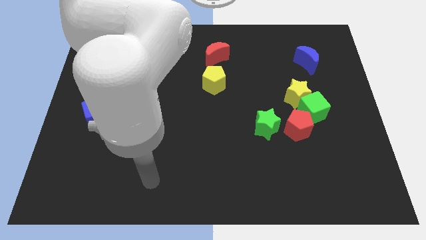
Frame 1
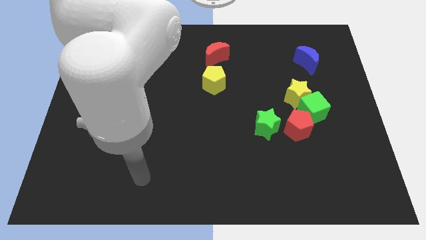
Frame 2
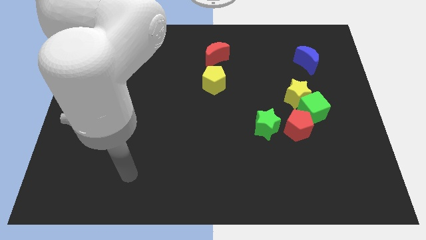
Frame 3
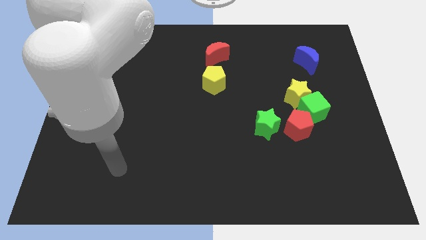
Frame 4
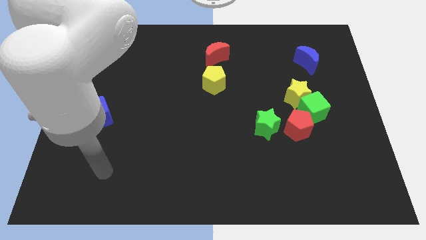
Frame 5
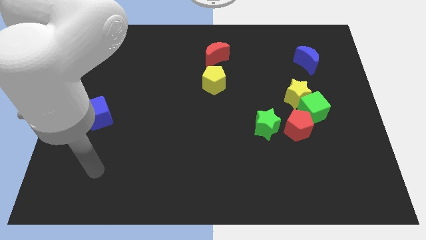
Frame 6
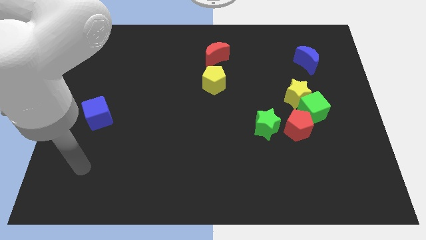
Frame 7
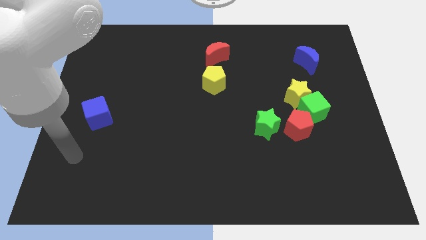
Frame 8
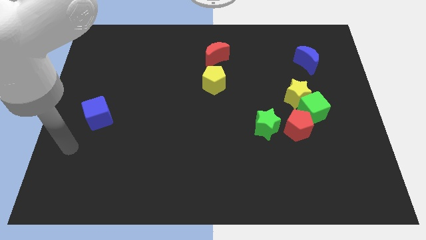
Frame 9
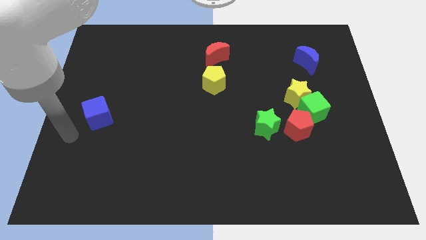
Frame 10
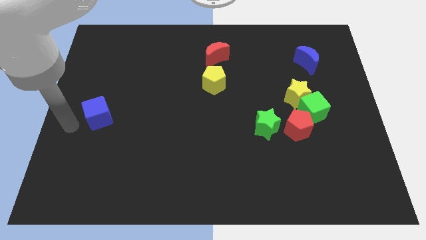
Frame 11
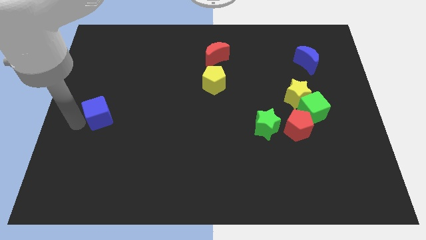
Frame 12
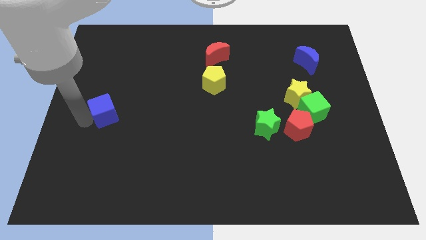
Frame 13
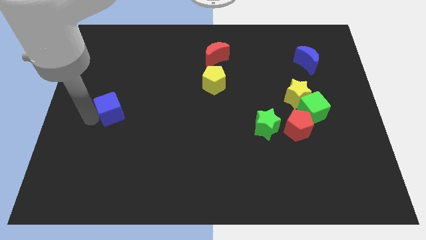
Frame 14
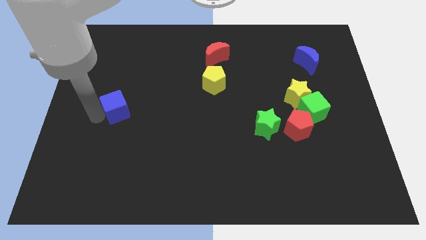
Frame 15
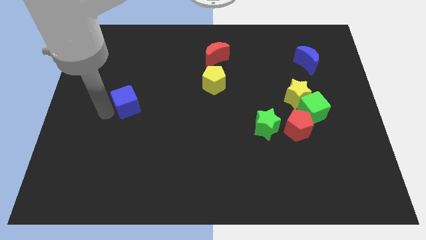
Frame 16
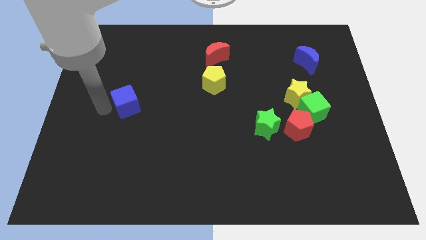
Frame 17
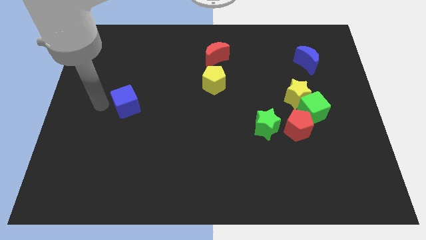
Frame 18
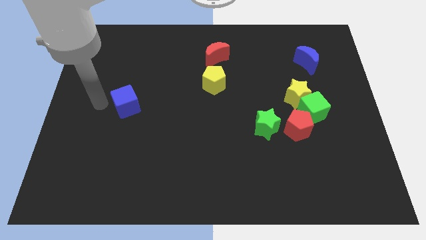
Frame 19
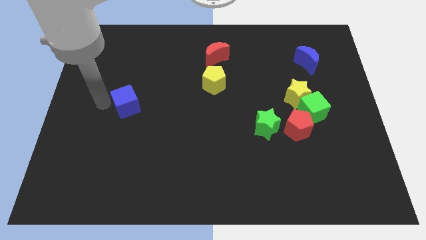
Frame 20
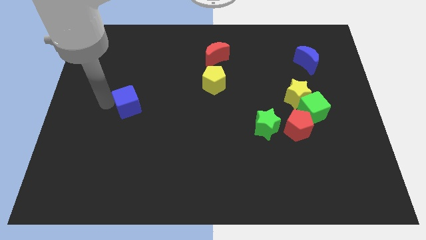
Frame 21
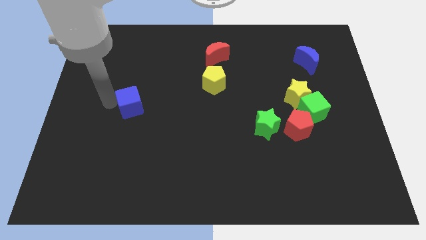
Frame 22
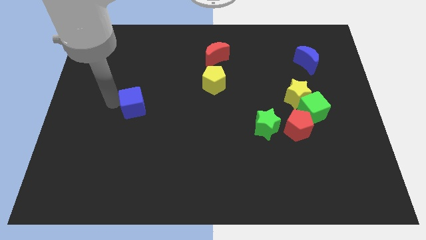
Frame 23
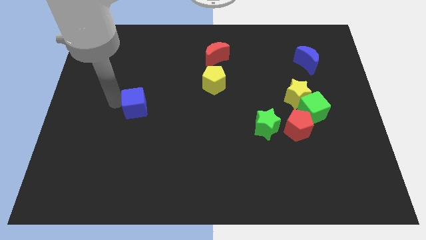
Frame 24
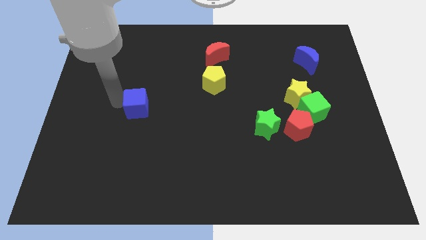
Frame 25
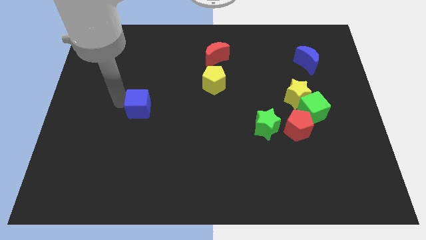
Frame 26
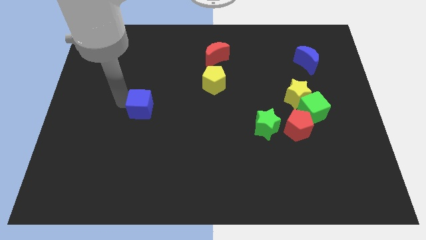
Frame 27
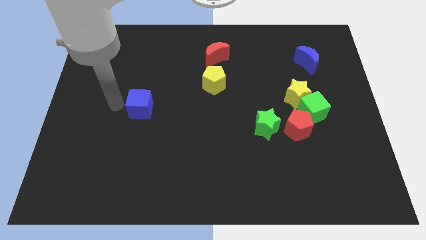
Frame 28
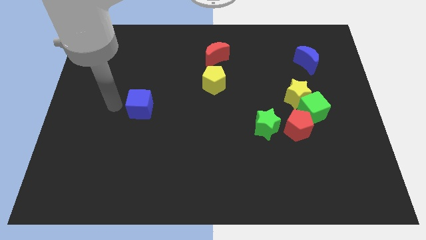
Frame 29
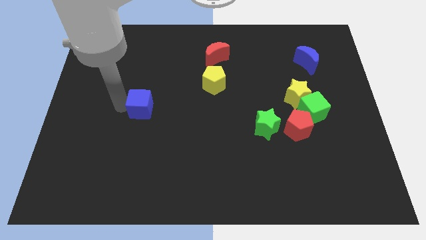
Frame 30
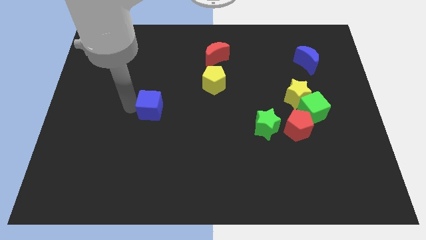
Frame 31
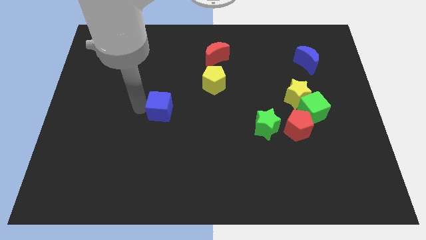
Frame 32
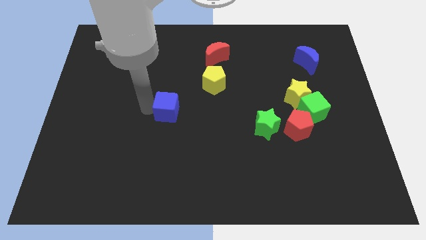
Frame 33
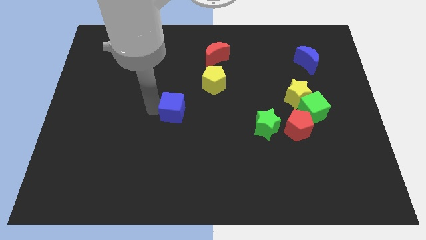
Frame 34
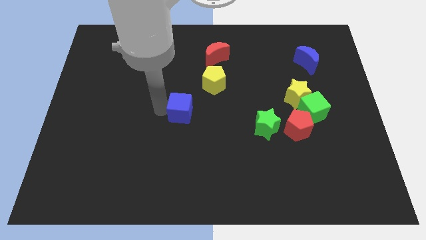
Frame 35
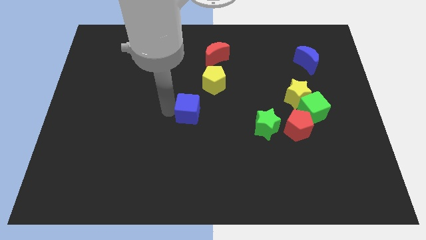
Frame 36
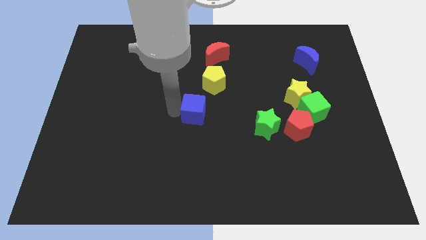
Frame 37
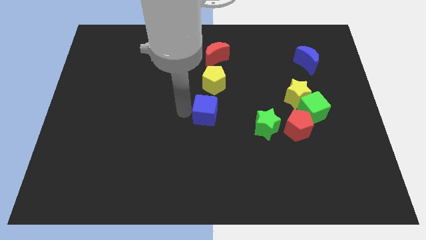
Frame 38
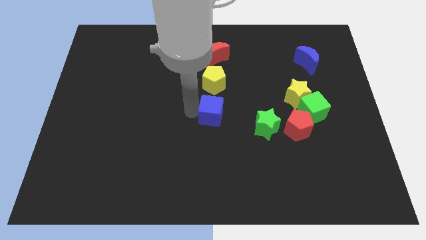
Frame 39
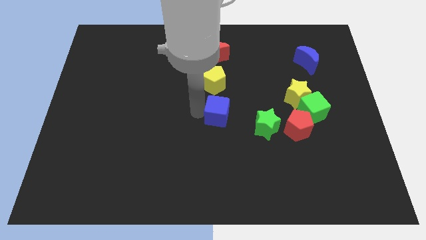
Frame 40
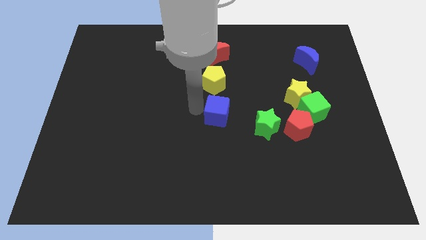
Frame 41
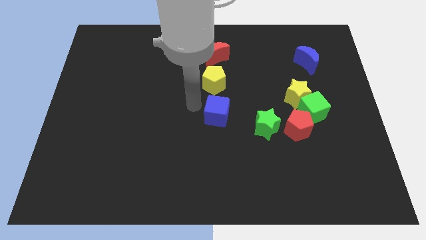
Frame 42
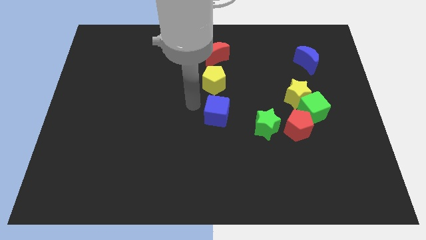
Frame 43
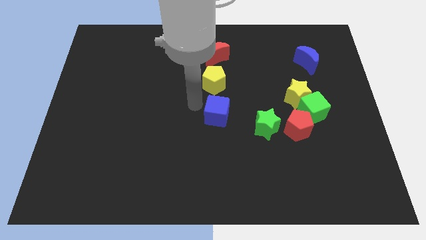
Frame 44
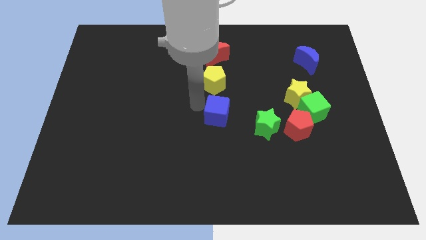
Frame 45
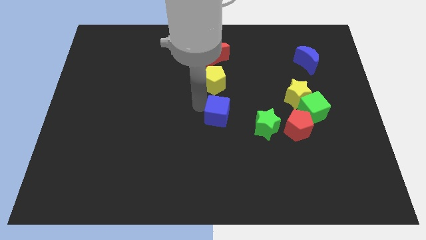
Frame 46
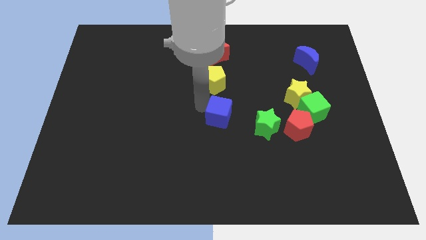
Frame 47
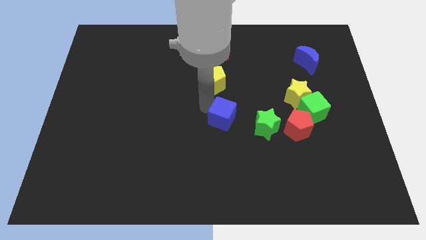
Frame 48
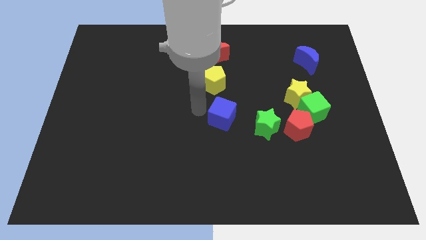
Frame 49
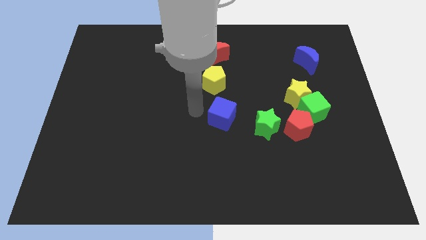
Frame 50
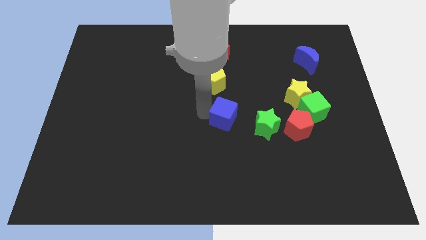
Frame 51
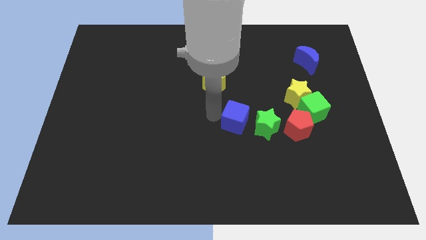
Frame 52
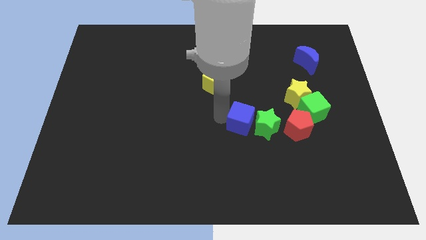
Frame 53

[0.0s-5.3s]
push the blue cube to the green star

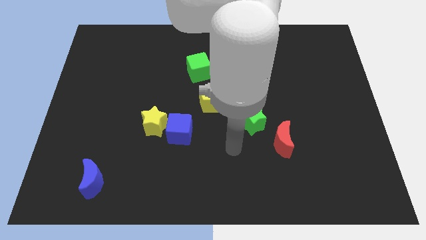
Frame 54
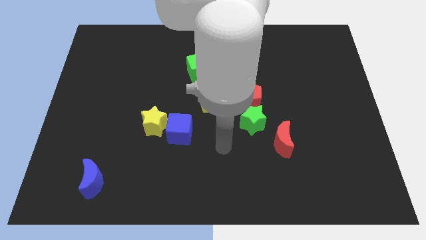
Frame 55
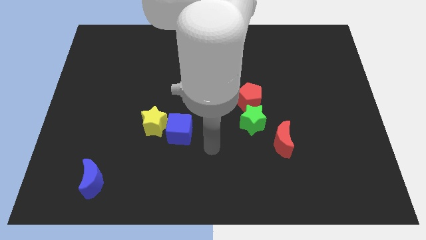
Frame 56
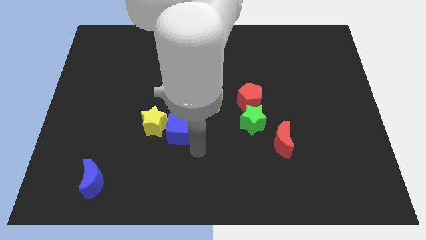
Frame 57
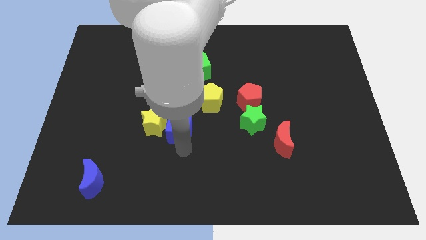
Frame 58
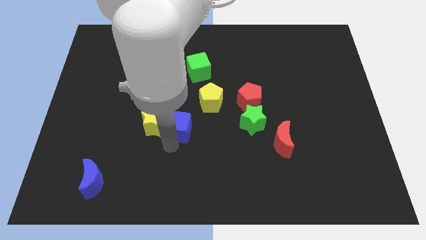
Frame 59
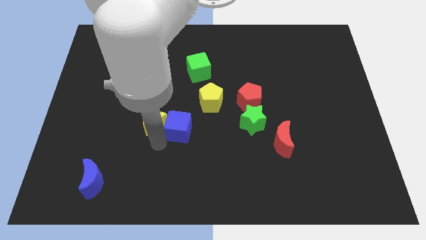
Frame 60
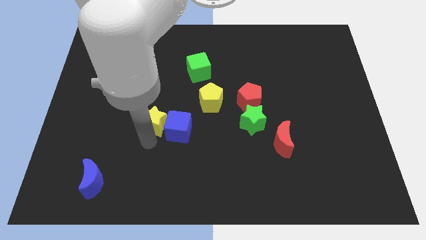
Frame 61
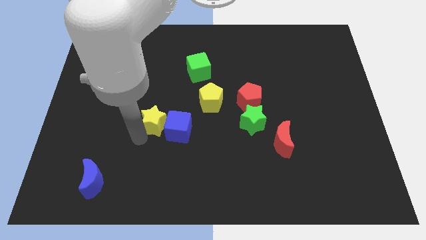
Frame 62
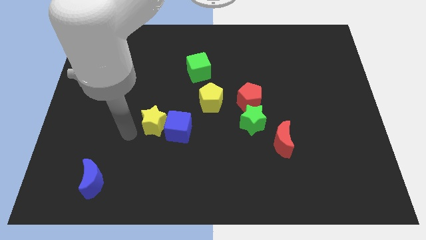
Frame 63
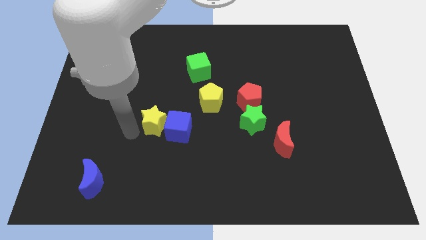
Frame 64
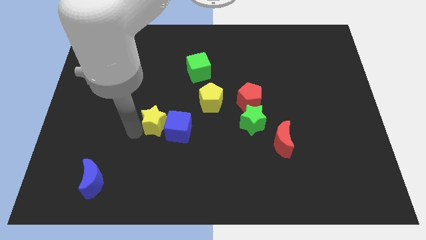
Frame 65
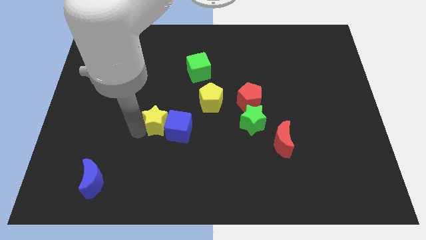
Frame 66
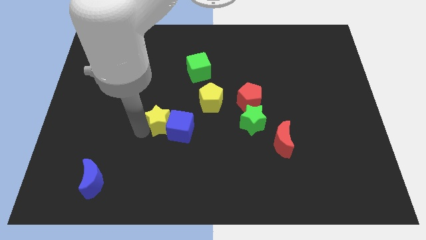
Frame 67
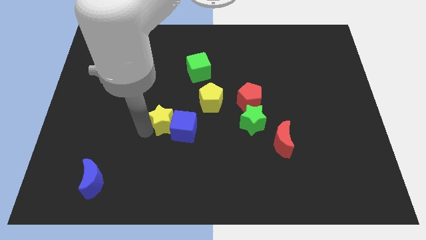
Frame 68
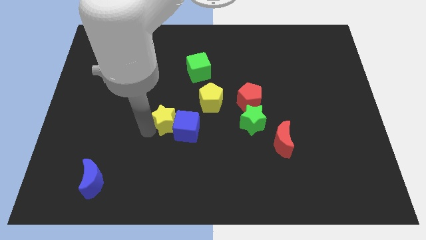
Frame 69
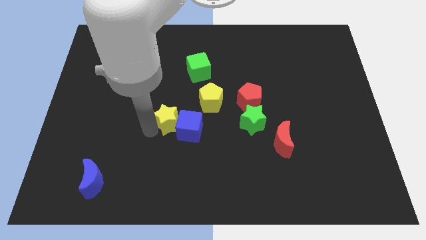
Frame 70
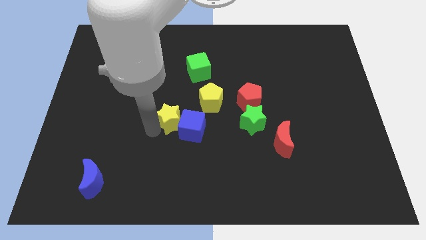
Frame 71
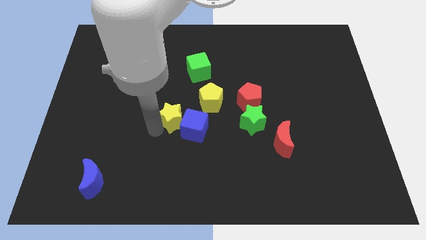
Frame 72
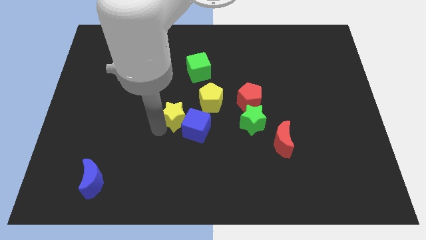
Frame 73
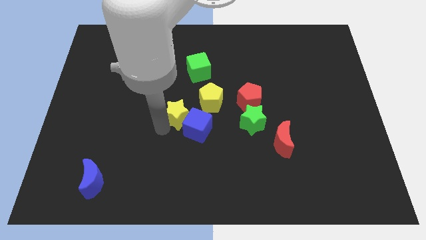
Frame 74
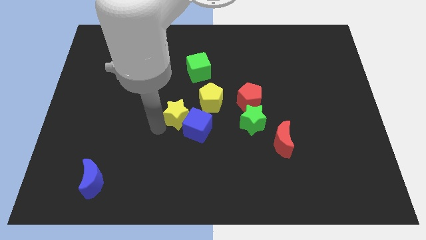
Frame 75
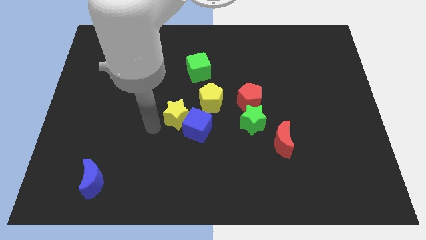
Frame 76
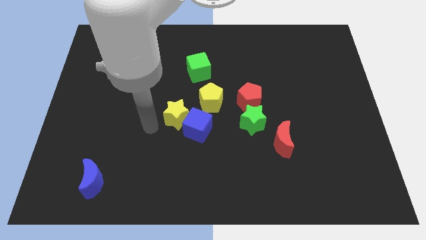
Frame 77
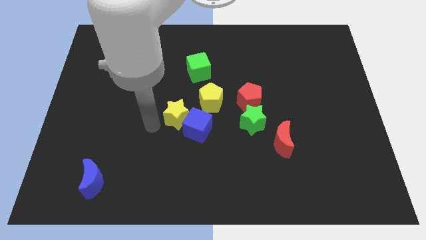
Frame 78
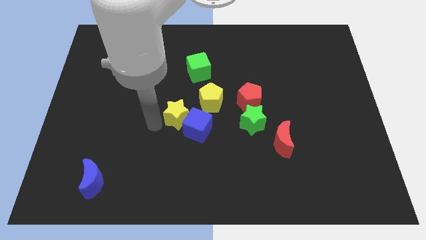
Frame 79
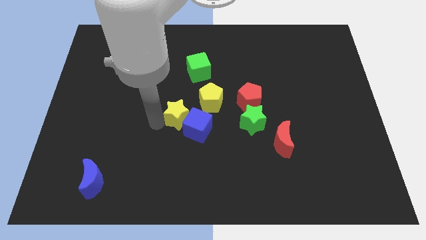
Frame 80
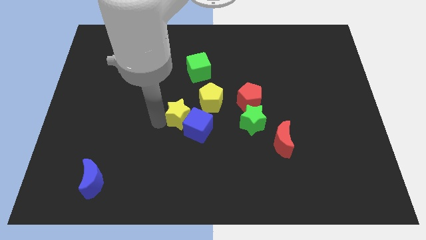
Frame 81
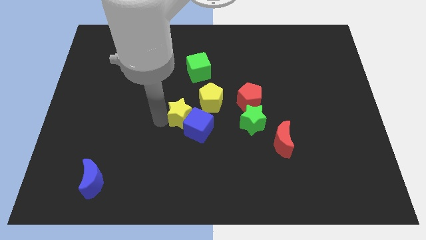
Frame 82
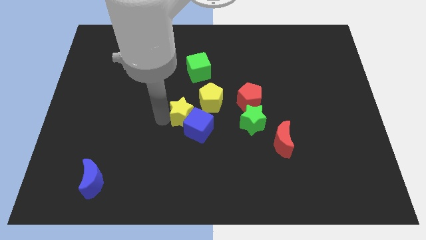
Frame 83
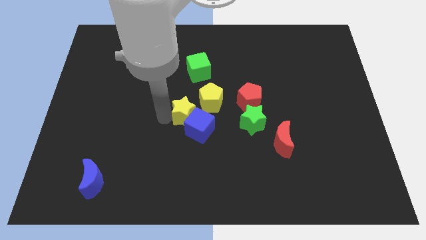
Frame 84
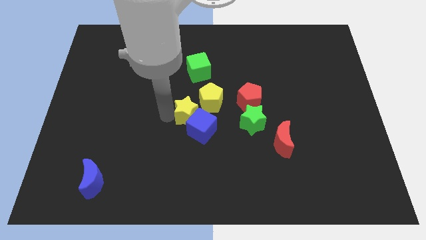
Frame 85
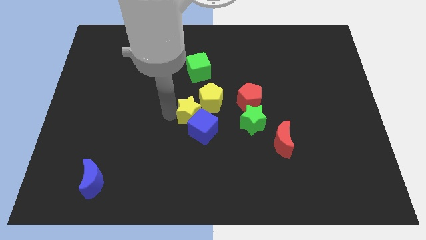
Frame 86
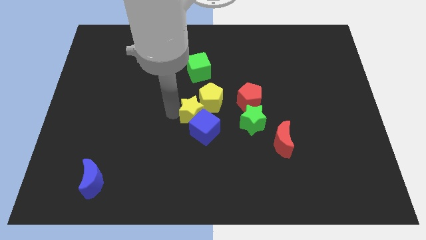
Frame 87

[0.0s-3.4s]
slide the yellow star to the yellow pentagon
